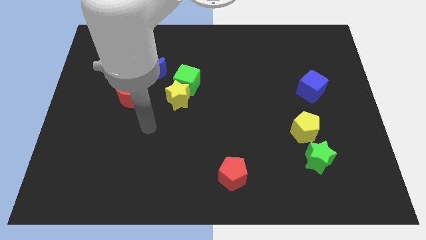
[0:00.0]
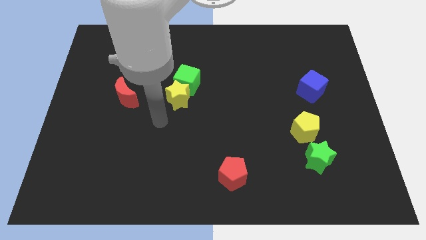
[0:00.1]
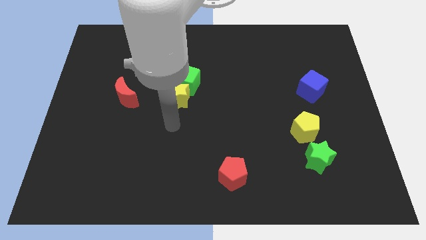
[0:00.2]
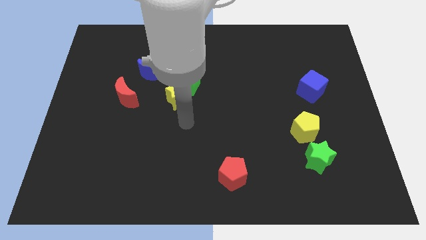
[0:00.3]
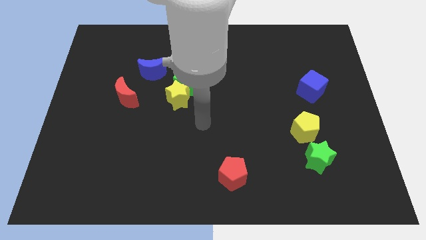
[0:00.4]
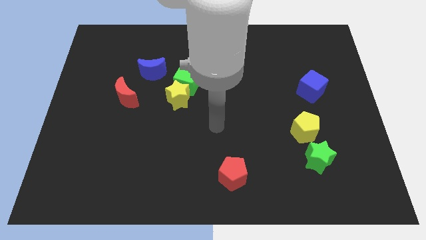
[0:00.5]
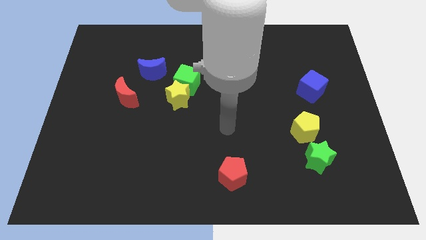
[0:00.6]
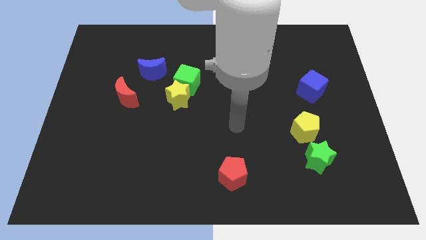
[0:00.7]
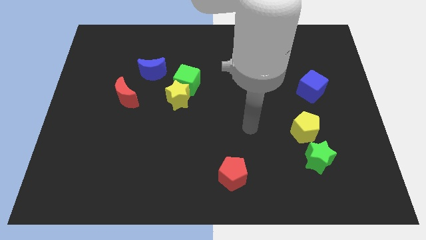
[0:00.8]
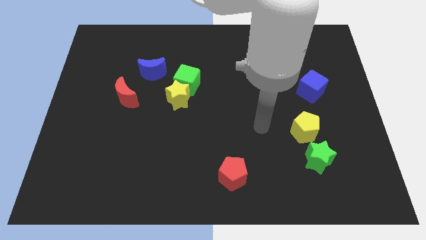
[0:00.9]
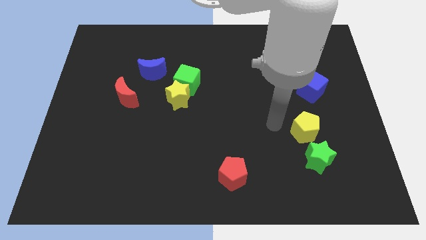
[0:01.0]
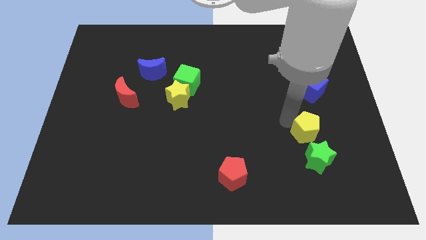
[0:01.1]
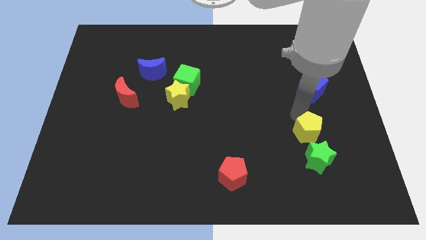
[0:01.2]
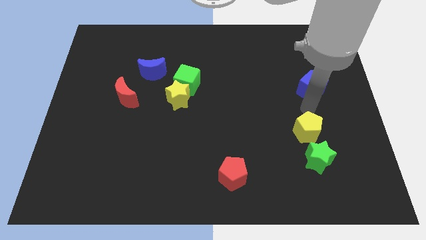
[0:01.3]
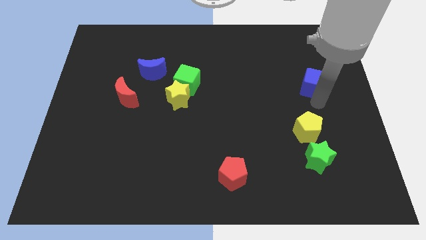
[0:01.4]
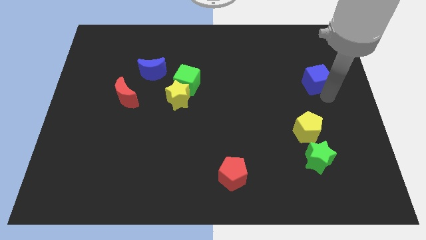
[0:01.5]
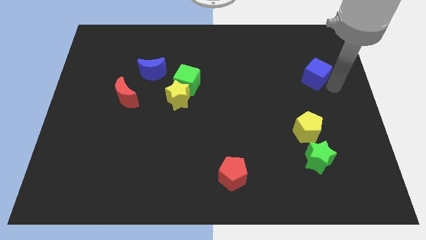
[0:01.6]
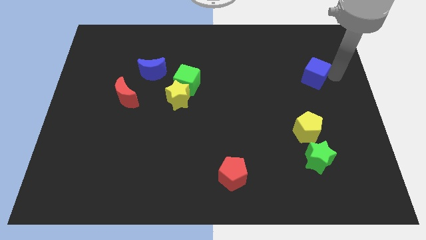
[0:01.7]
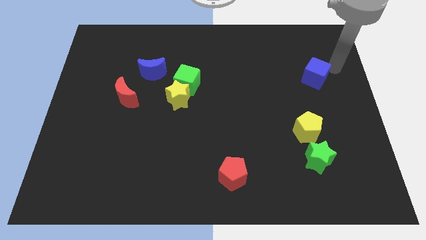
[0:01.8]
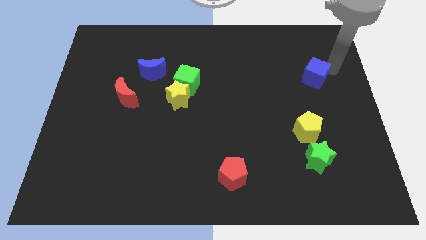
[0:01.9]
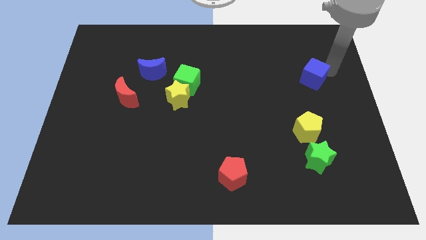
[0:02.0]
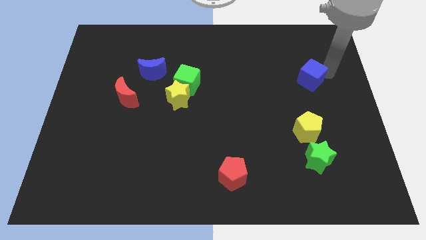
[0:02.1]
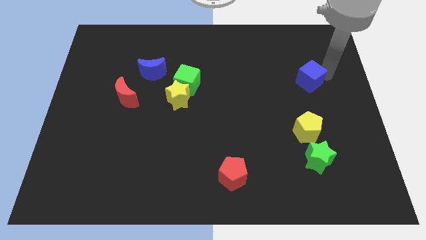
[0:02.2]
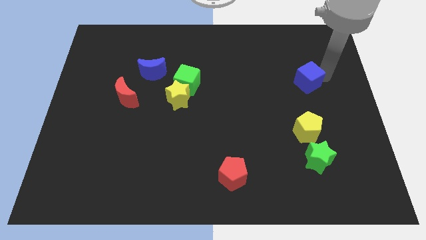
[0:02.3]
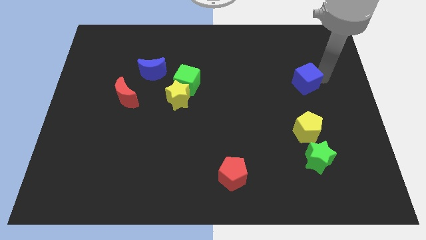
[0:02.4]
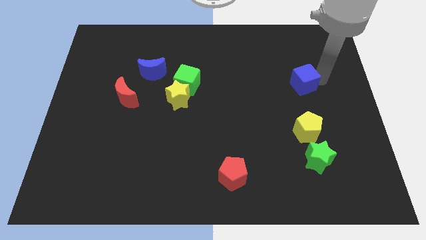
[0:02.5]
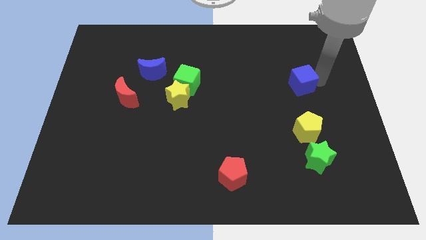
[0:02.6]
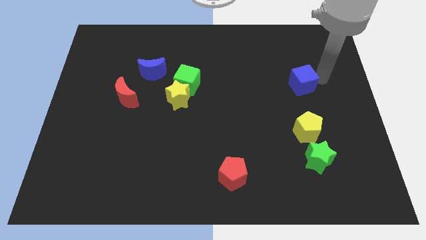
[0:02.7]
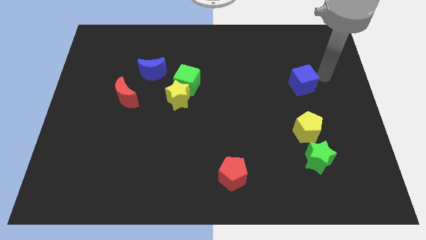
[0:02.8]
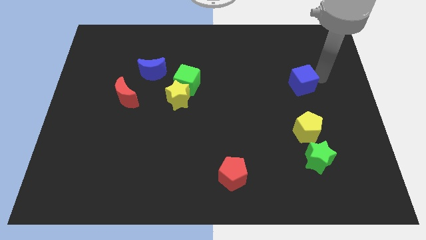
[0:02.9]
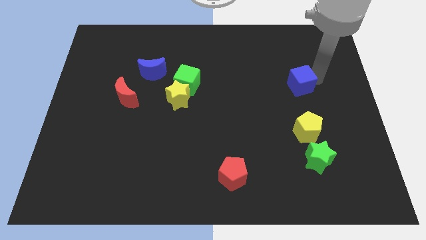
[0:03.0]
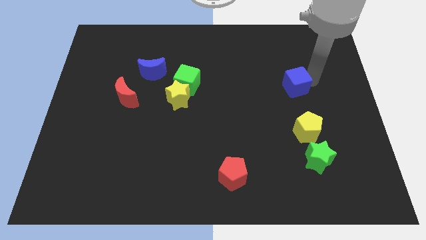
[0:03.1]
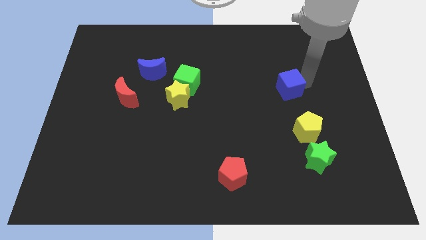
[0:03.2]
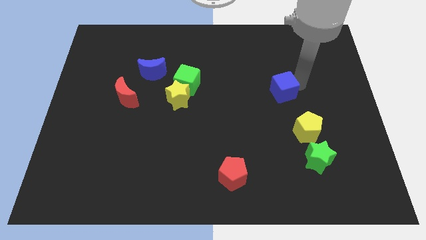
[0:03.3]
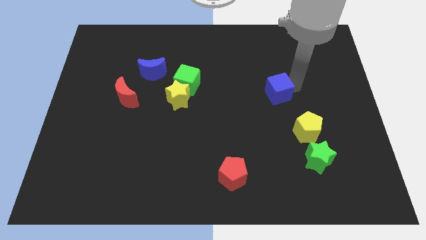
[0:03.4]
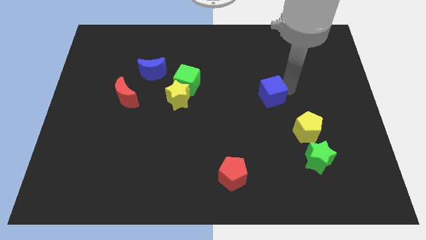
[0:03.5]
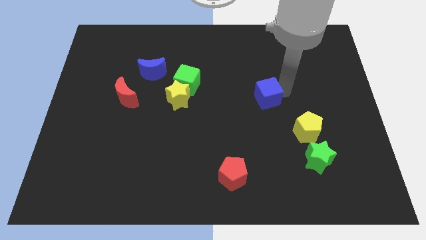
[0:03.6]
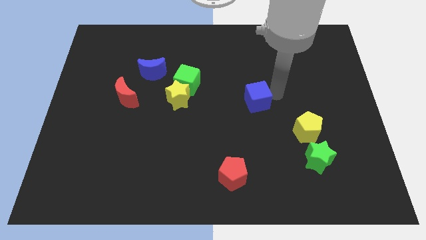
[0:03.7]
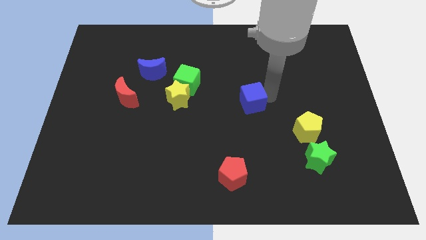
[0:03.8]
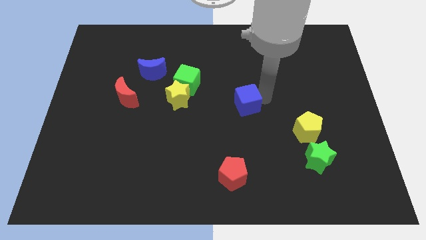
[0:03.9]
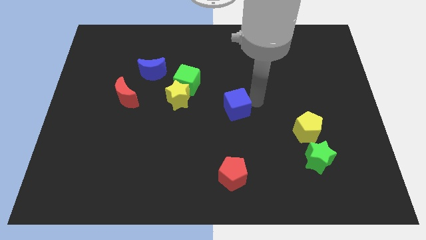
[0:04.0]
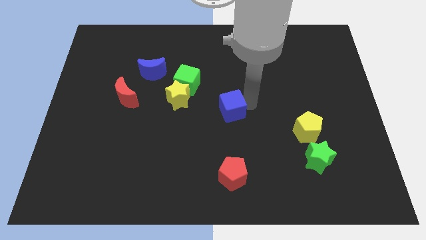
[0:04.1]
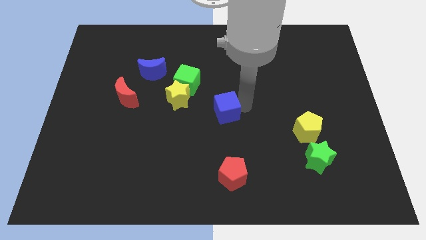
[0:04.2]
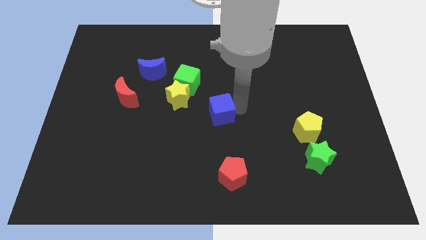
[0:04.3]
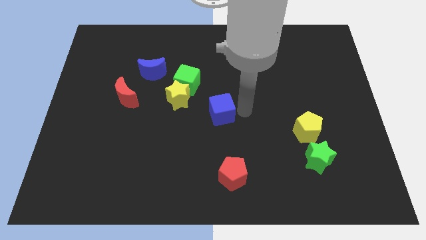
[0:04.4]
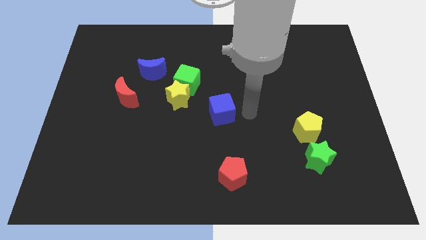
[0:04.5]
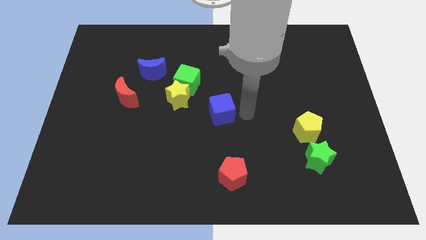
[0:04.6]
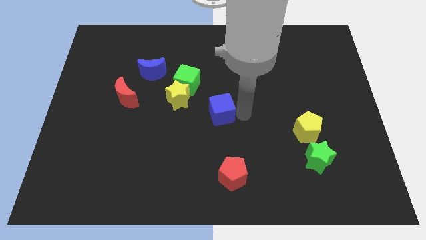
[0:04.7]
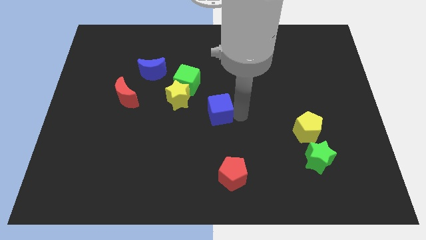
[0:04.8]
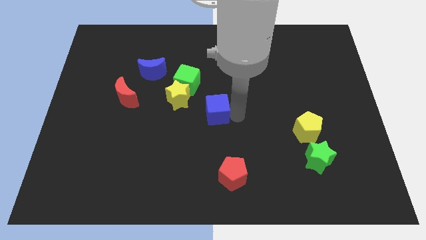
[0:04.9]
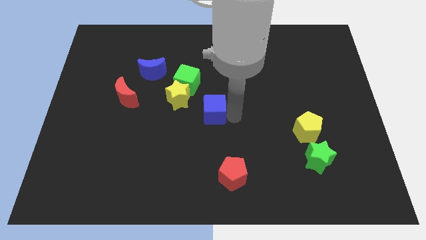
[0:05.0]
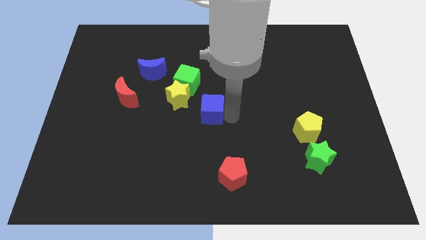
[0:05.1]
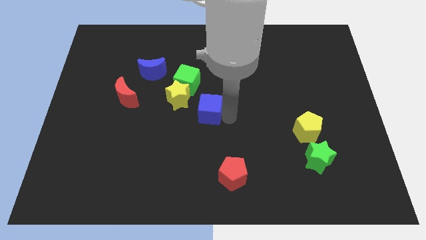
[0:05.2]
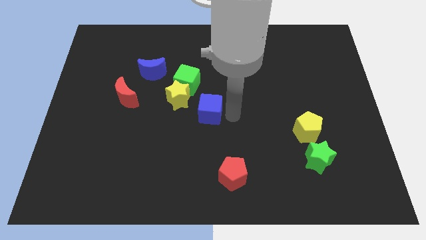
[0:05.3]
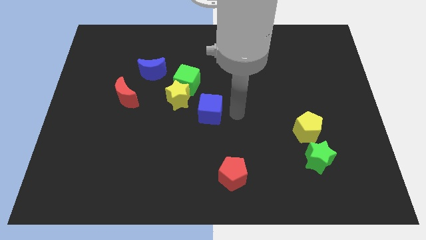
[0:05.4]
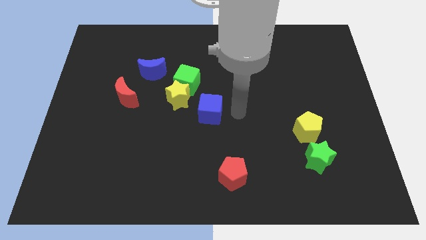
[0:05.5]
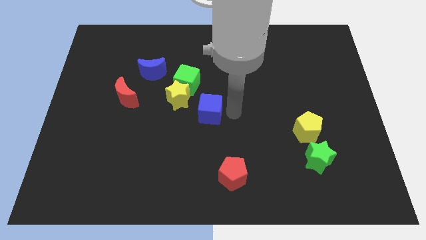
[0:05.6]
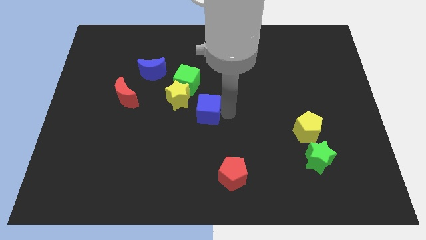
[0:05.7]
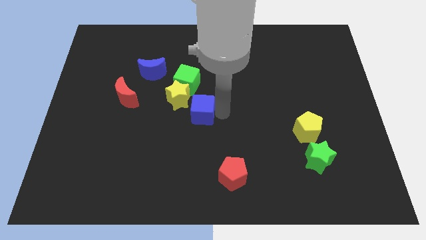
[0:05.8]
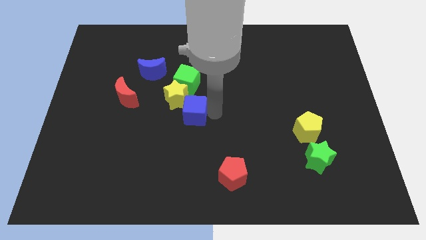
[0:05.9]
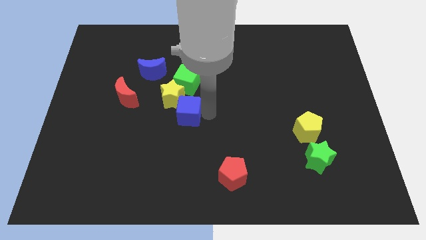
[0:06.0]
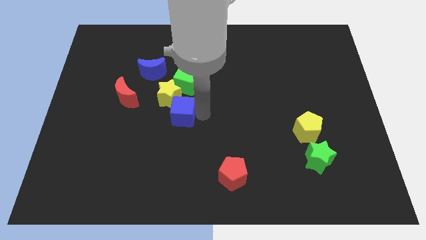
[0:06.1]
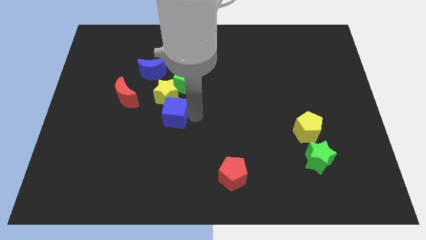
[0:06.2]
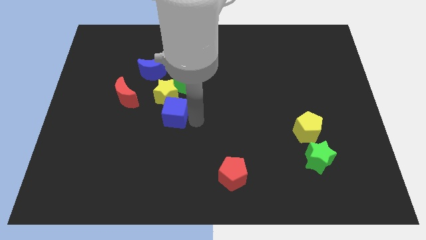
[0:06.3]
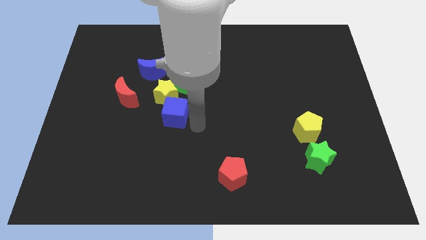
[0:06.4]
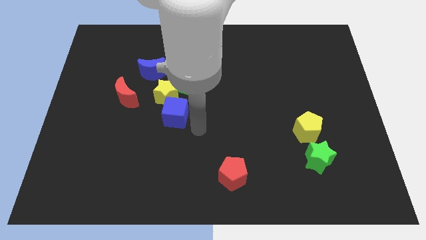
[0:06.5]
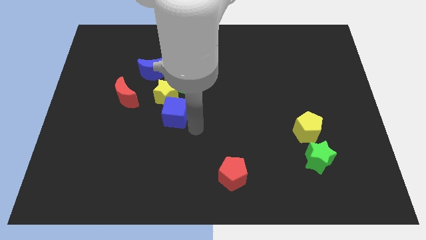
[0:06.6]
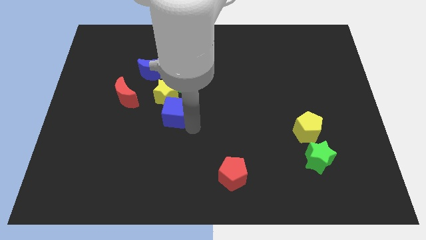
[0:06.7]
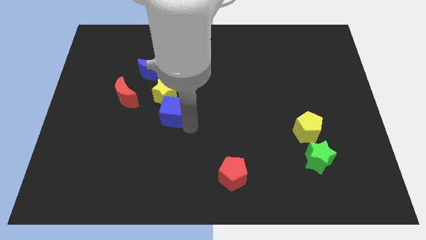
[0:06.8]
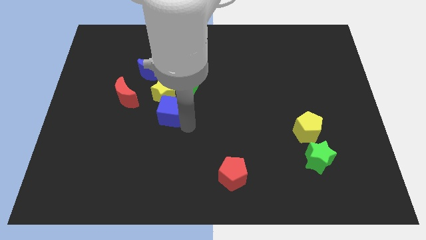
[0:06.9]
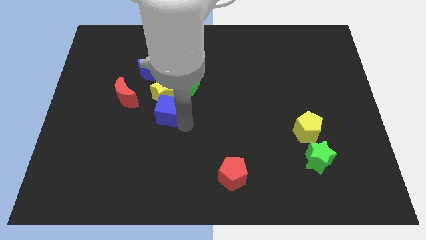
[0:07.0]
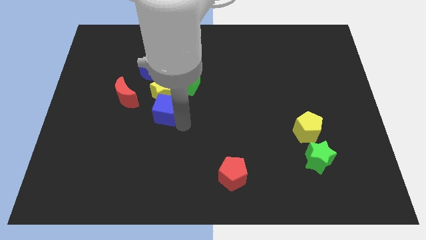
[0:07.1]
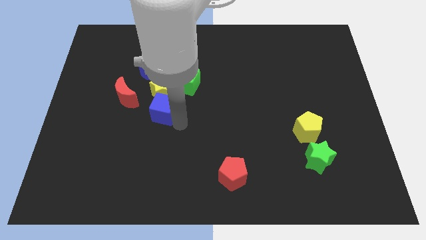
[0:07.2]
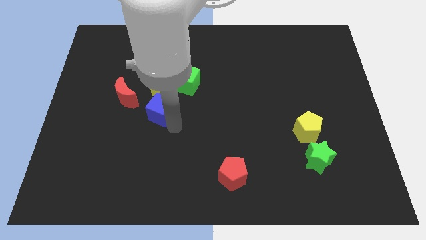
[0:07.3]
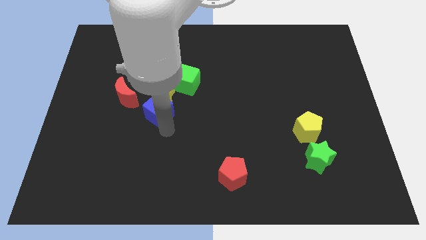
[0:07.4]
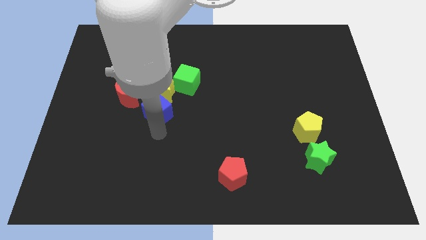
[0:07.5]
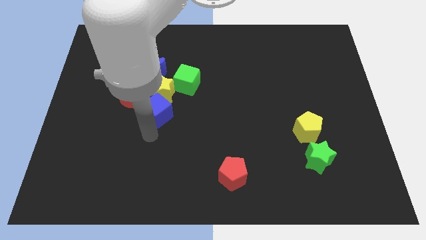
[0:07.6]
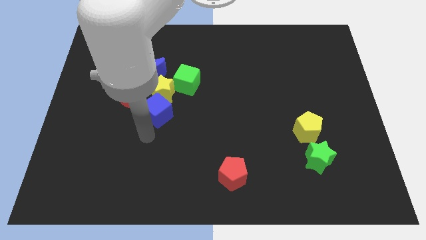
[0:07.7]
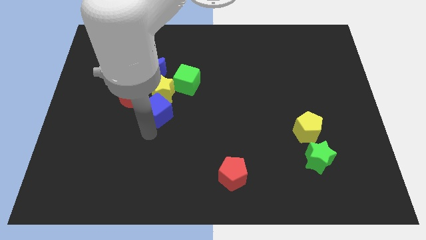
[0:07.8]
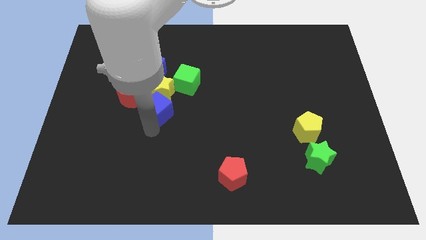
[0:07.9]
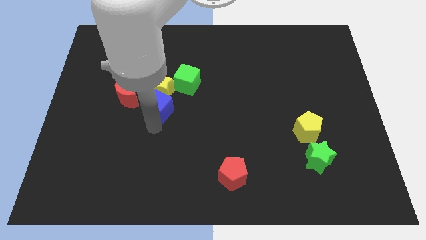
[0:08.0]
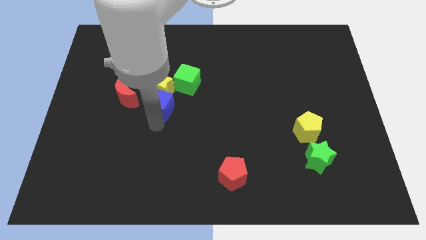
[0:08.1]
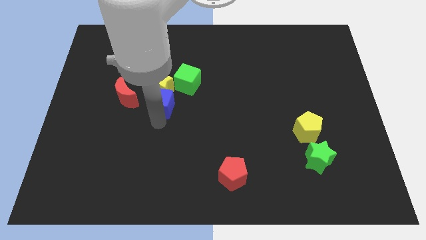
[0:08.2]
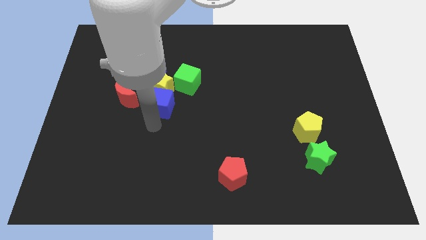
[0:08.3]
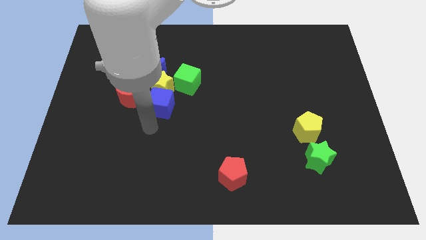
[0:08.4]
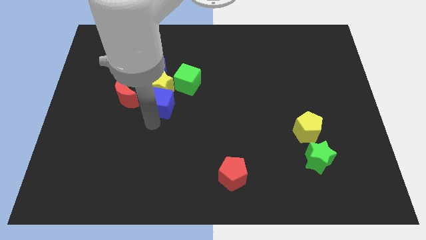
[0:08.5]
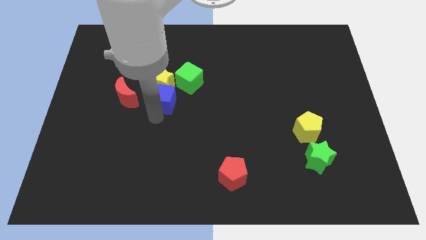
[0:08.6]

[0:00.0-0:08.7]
push the blue cube to the bottom right of the blue moon
